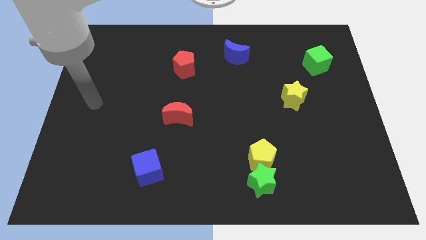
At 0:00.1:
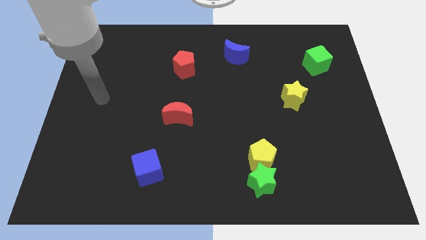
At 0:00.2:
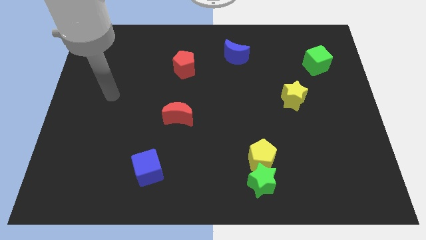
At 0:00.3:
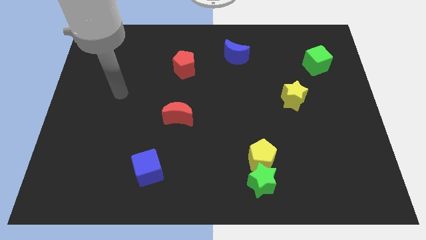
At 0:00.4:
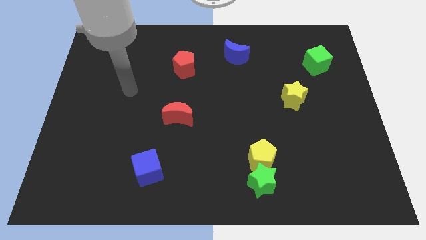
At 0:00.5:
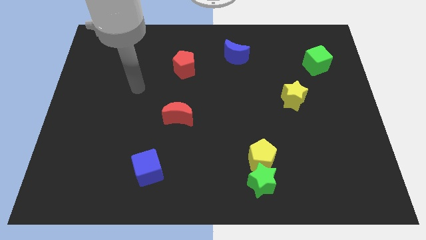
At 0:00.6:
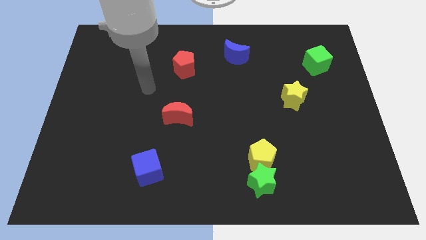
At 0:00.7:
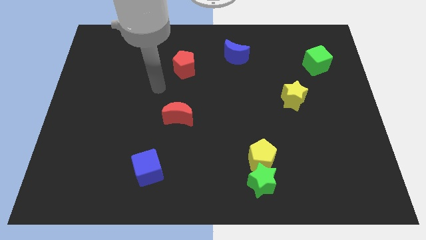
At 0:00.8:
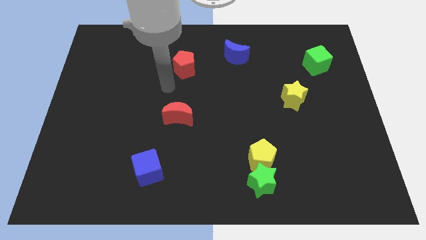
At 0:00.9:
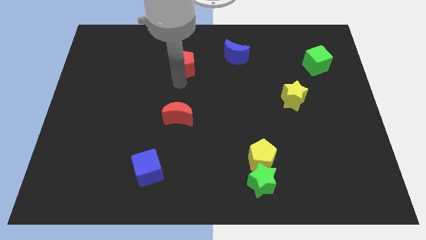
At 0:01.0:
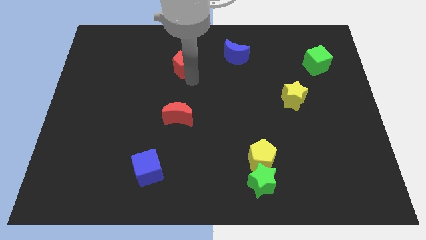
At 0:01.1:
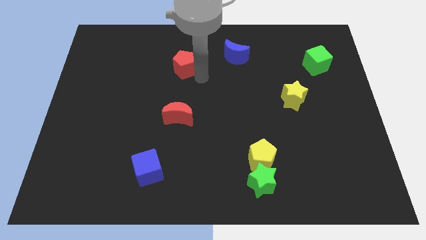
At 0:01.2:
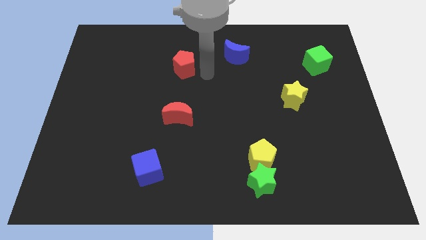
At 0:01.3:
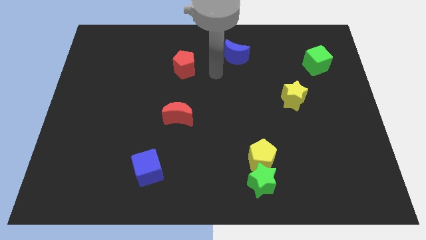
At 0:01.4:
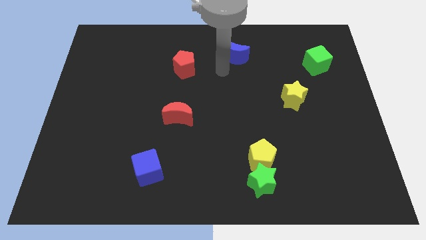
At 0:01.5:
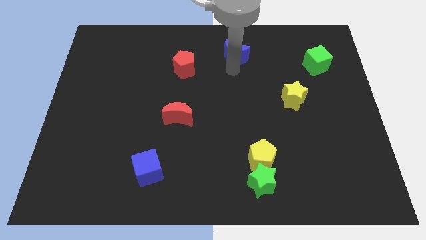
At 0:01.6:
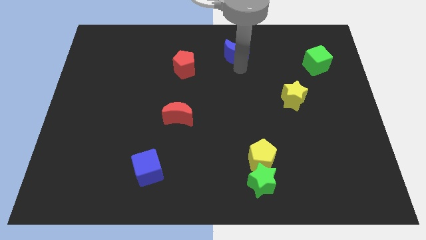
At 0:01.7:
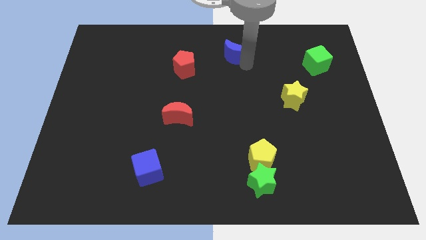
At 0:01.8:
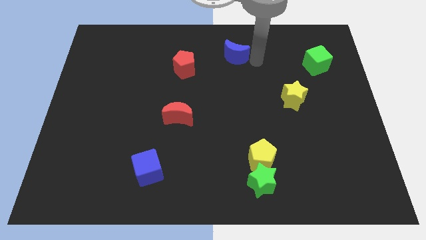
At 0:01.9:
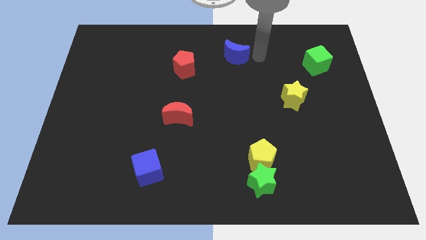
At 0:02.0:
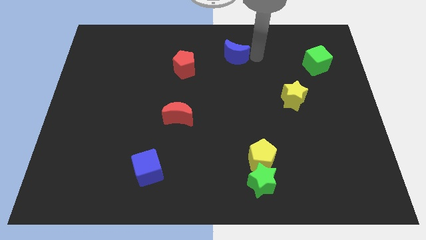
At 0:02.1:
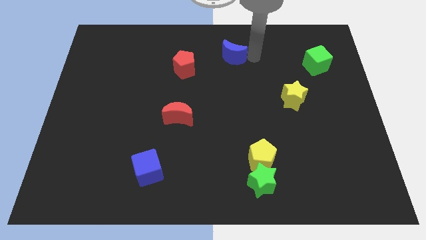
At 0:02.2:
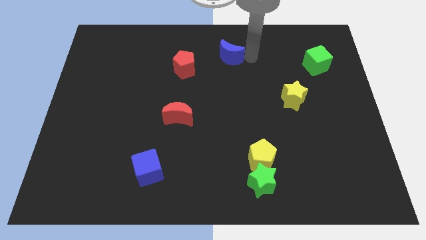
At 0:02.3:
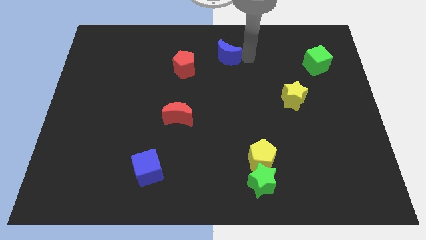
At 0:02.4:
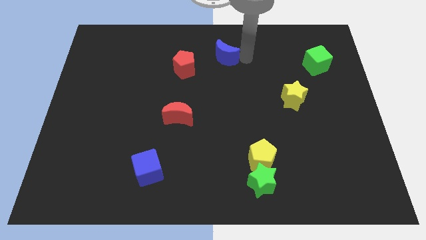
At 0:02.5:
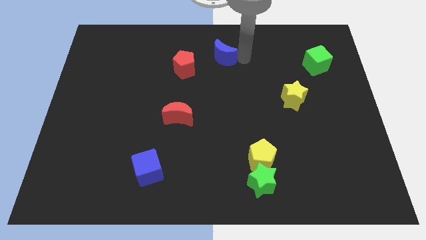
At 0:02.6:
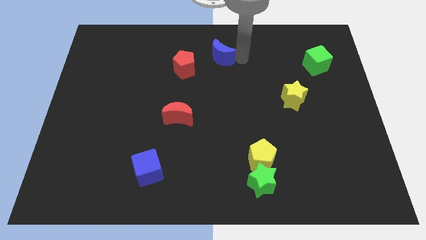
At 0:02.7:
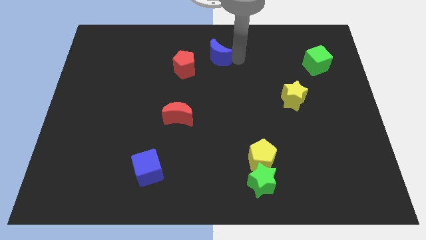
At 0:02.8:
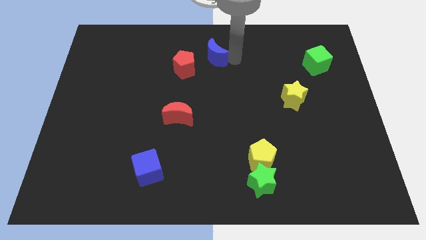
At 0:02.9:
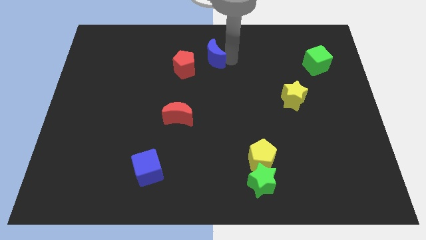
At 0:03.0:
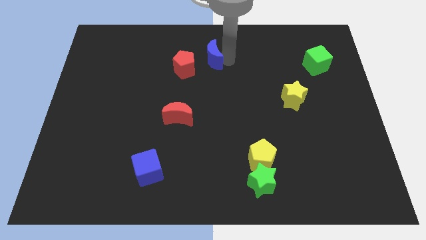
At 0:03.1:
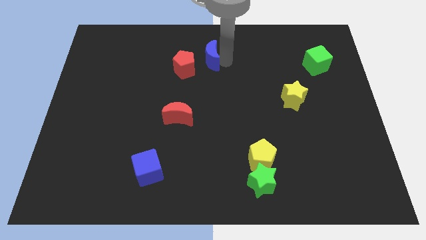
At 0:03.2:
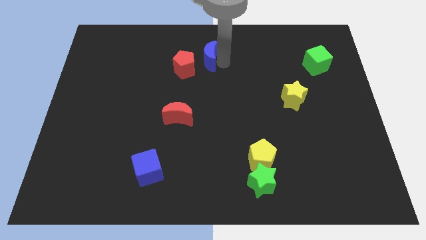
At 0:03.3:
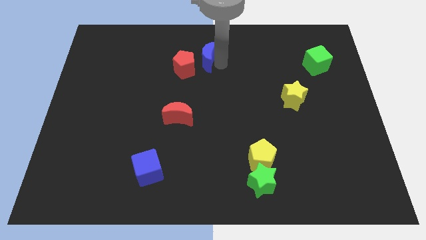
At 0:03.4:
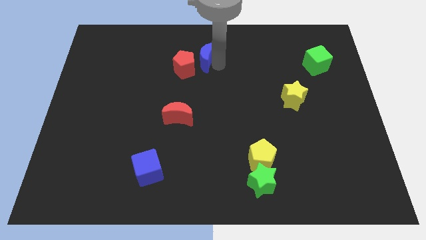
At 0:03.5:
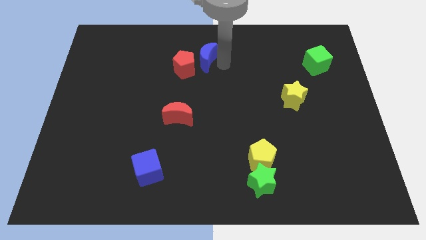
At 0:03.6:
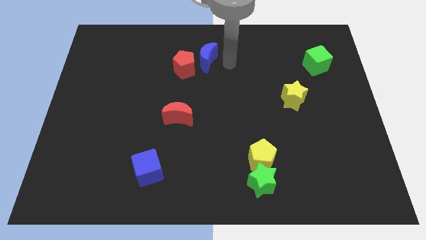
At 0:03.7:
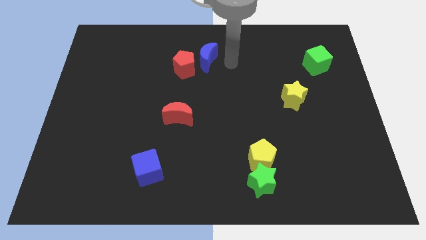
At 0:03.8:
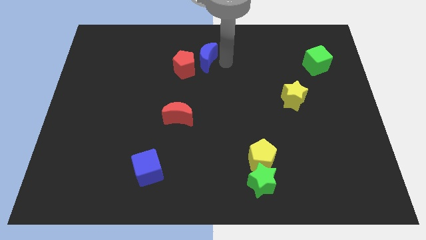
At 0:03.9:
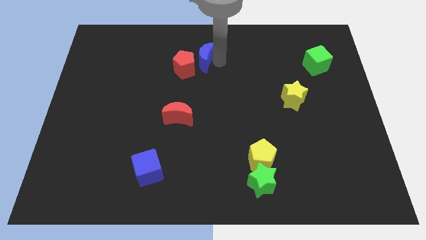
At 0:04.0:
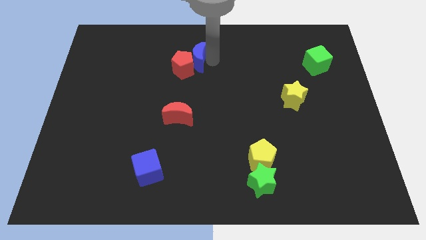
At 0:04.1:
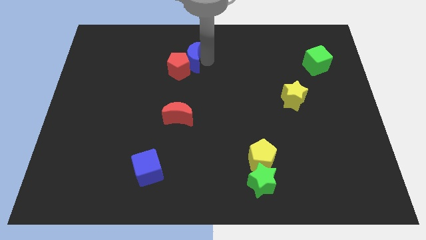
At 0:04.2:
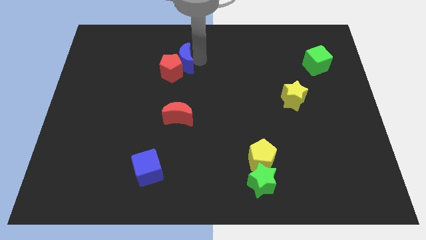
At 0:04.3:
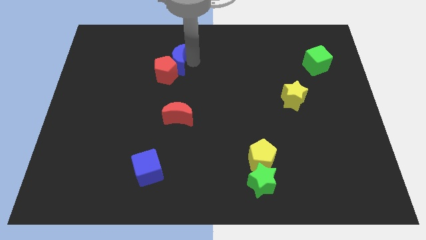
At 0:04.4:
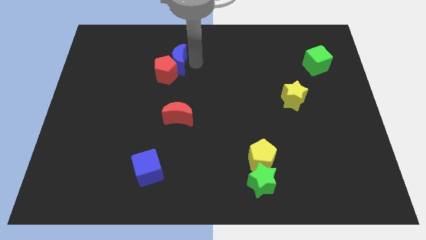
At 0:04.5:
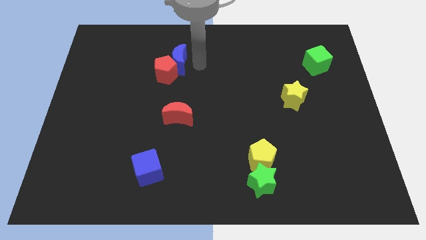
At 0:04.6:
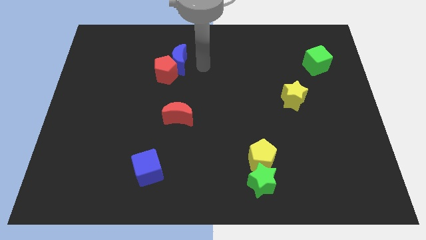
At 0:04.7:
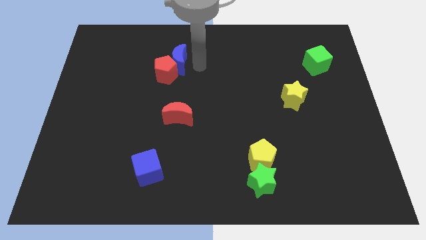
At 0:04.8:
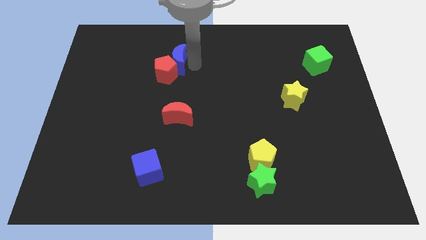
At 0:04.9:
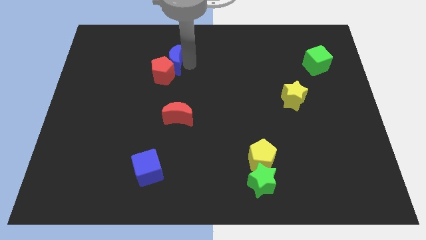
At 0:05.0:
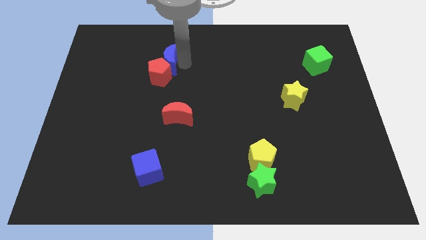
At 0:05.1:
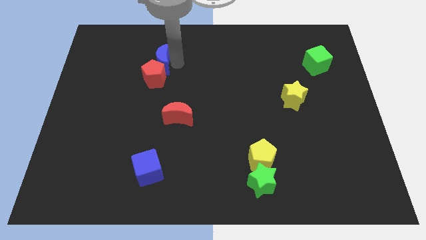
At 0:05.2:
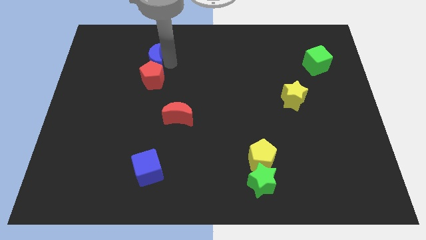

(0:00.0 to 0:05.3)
slide the blue moon to the left

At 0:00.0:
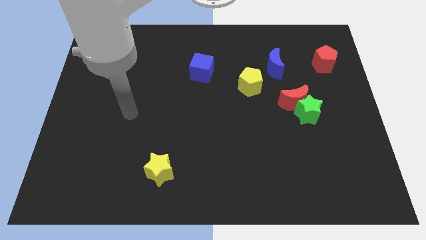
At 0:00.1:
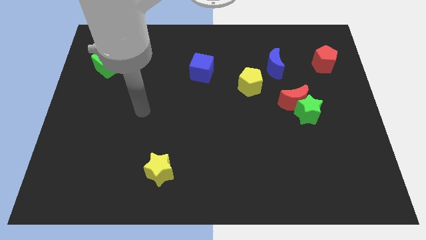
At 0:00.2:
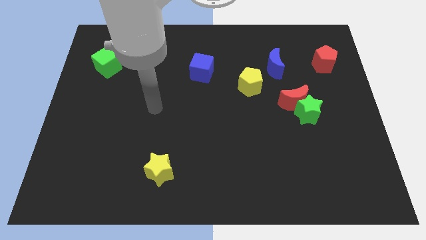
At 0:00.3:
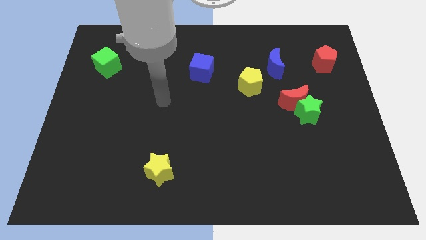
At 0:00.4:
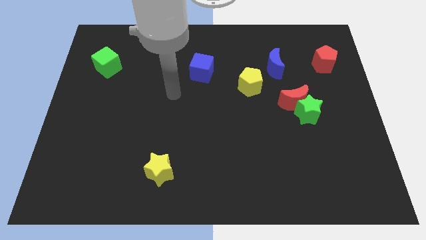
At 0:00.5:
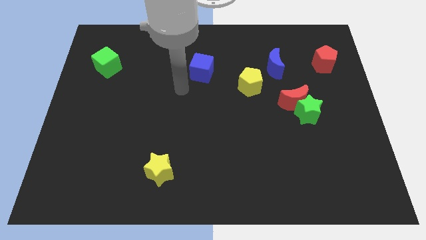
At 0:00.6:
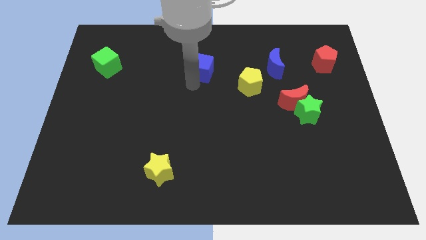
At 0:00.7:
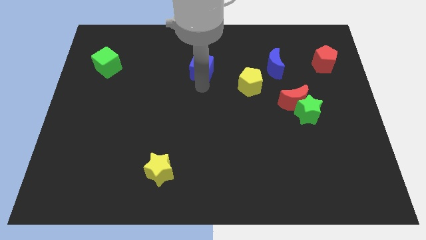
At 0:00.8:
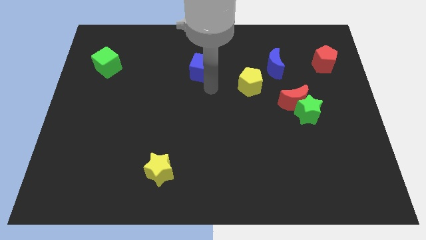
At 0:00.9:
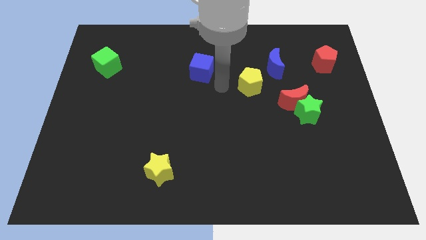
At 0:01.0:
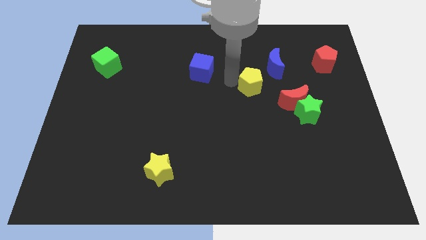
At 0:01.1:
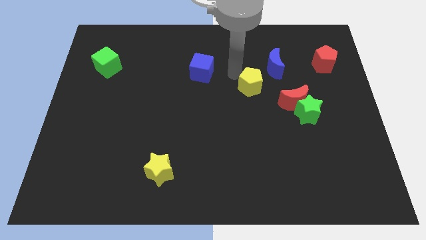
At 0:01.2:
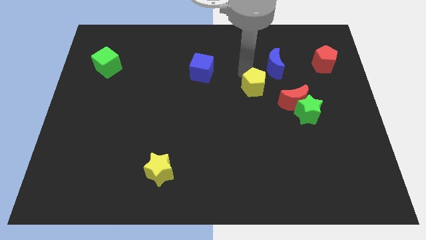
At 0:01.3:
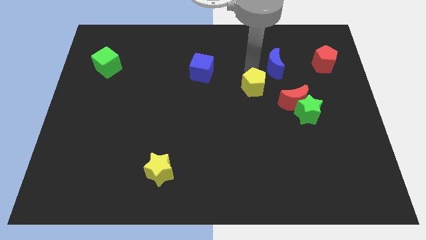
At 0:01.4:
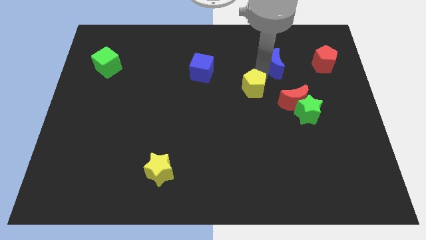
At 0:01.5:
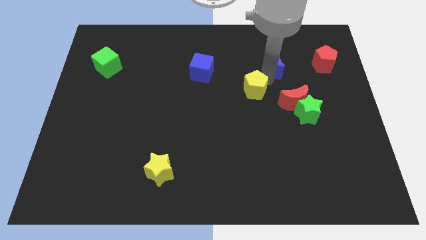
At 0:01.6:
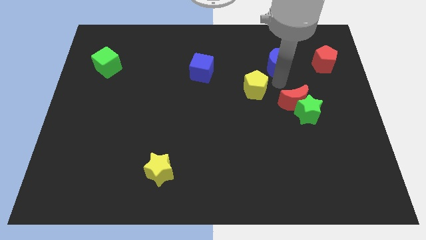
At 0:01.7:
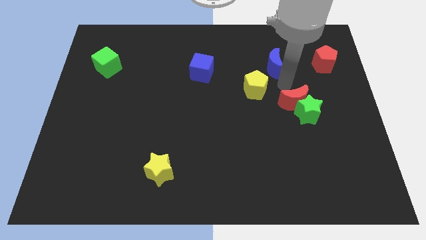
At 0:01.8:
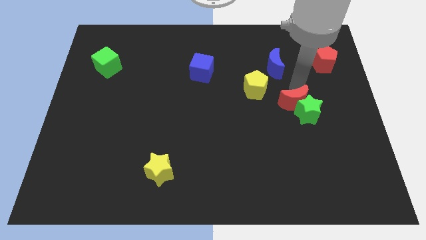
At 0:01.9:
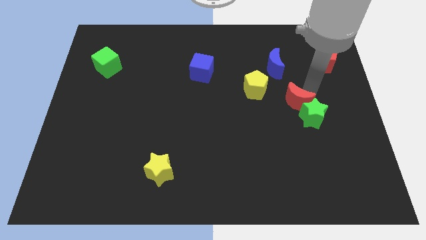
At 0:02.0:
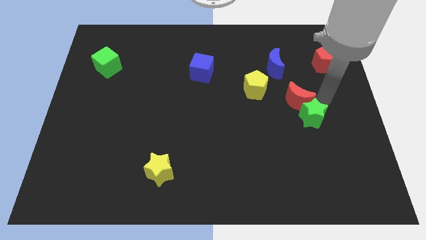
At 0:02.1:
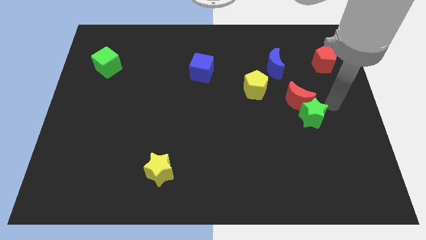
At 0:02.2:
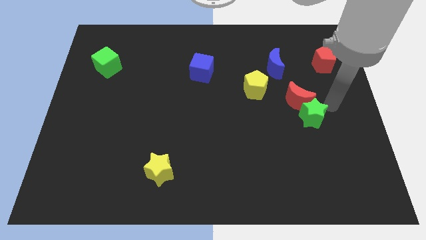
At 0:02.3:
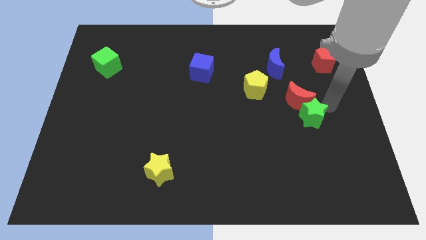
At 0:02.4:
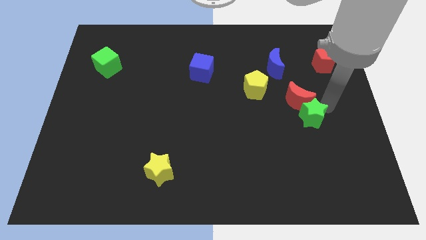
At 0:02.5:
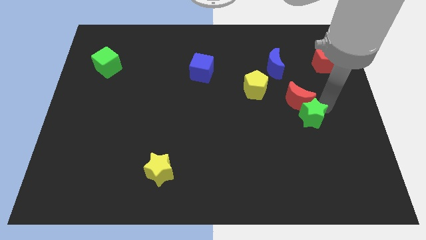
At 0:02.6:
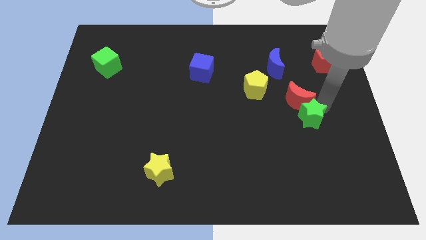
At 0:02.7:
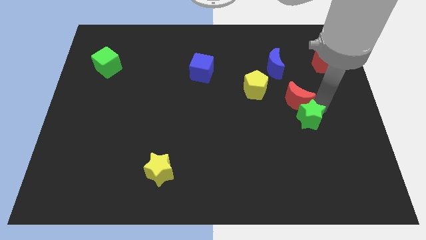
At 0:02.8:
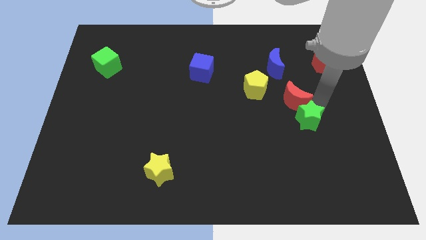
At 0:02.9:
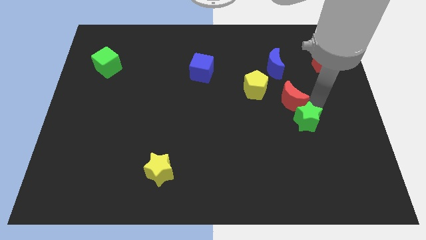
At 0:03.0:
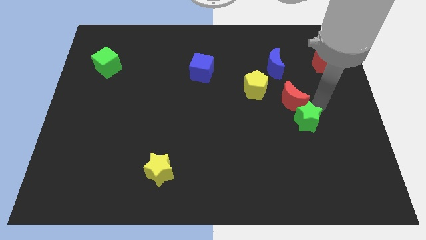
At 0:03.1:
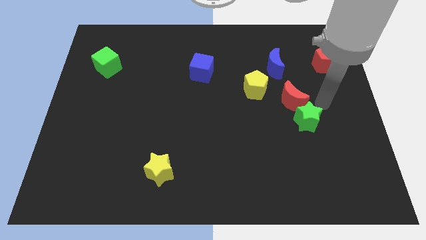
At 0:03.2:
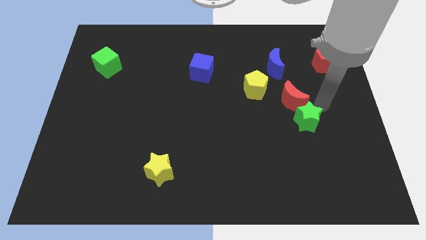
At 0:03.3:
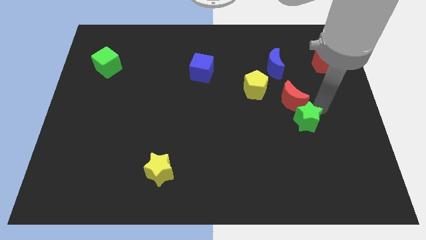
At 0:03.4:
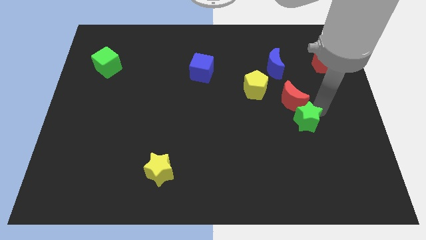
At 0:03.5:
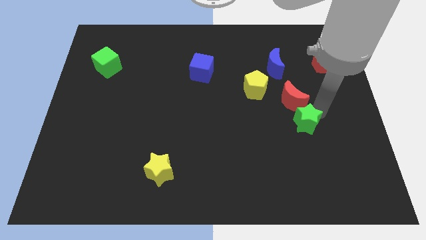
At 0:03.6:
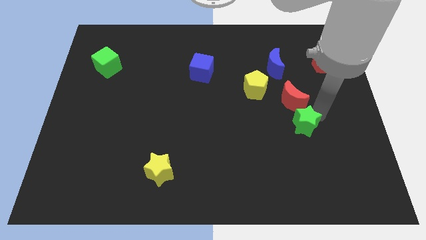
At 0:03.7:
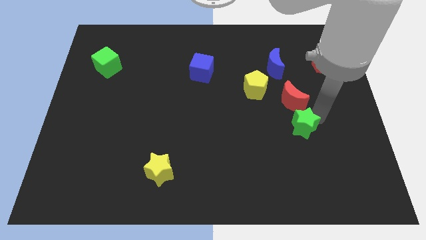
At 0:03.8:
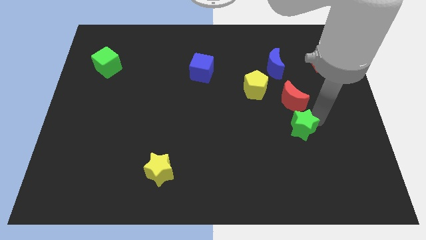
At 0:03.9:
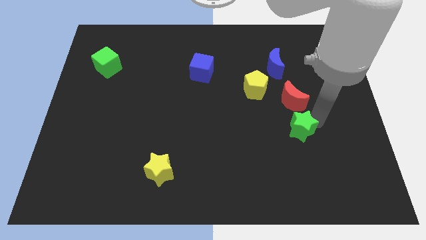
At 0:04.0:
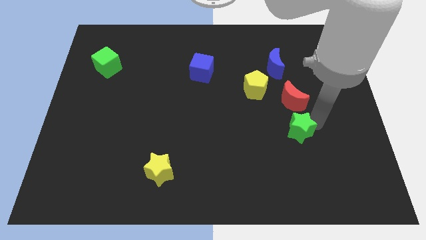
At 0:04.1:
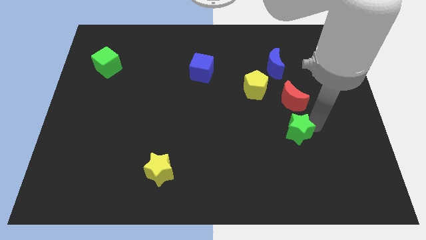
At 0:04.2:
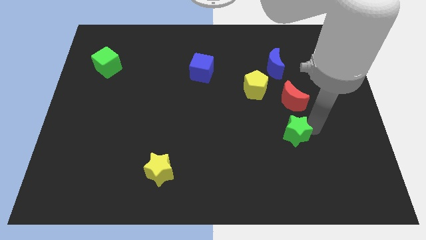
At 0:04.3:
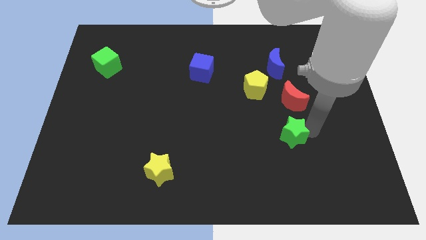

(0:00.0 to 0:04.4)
move the green star down and then to the left slightly
